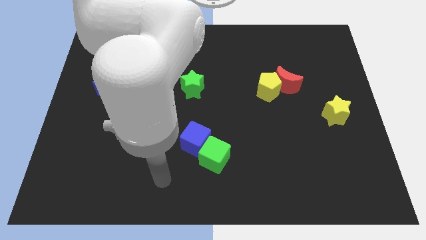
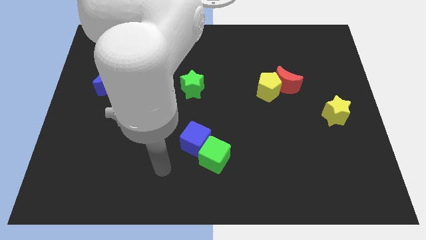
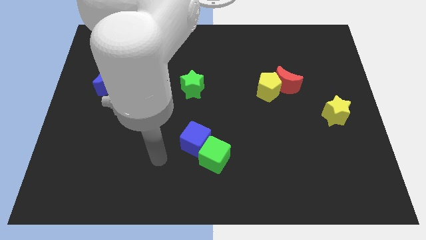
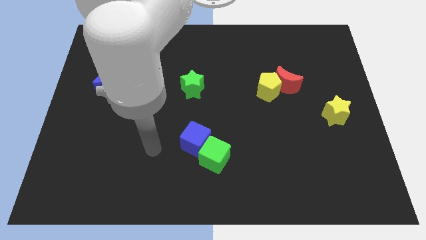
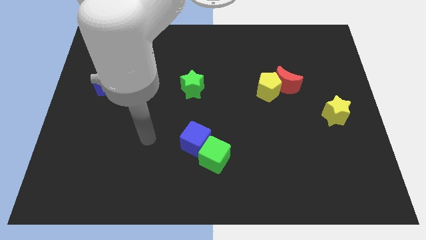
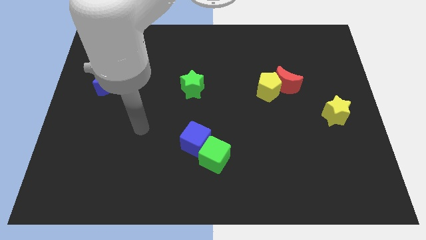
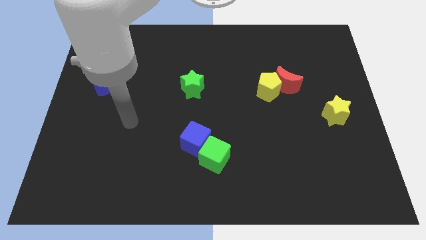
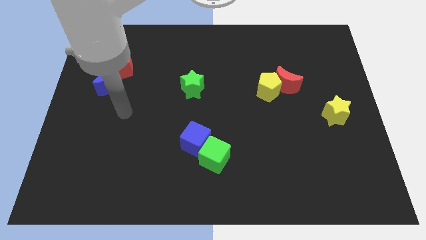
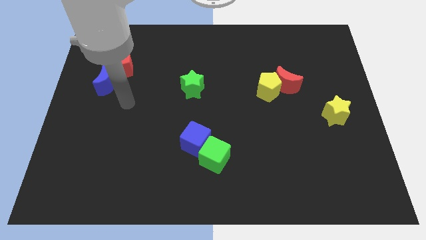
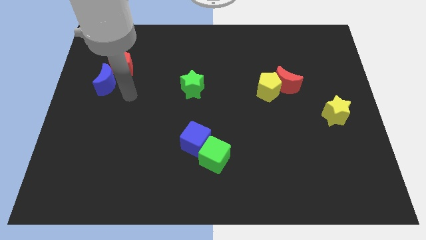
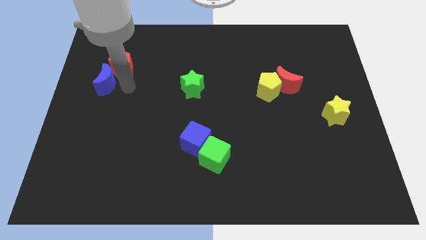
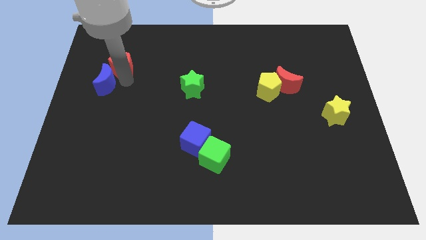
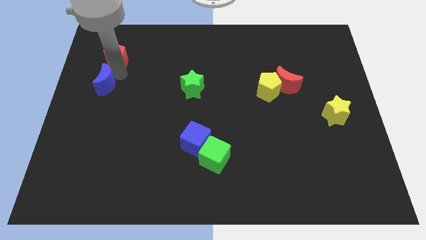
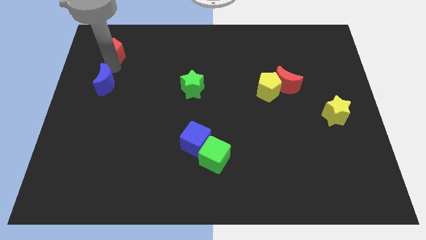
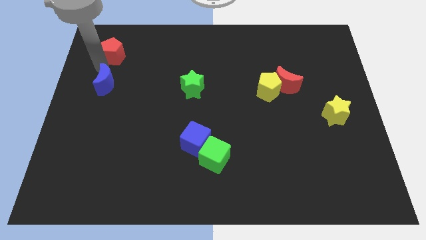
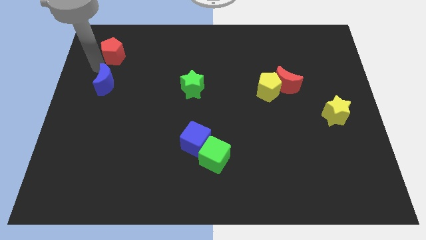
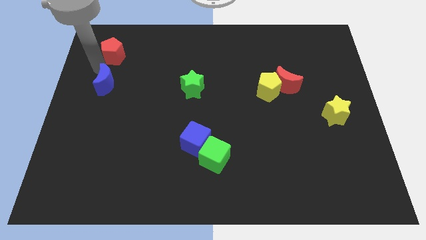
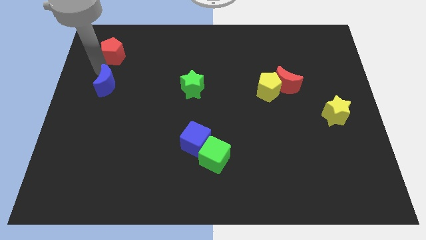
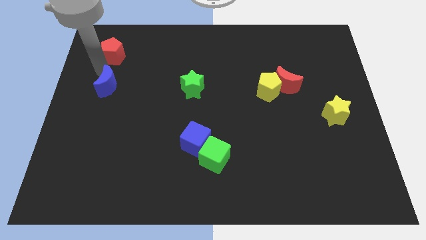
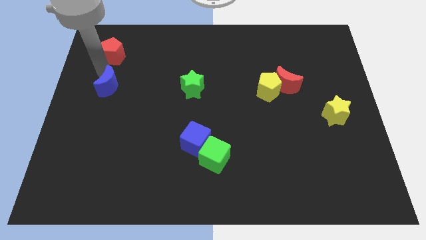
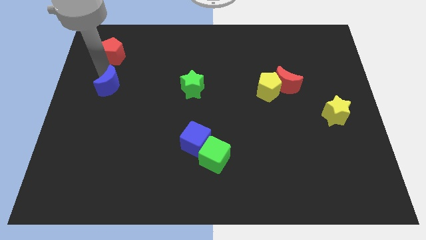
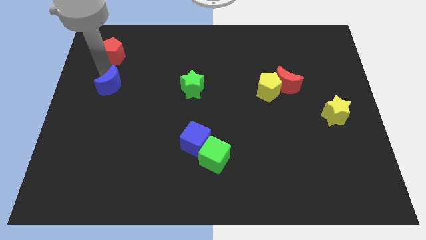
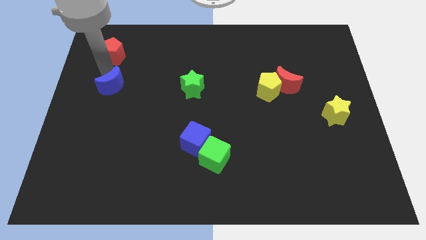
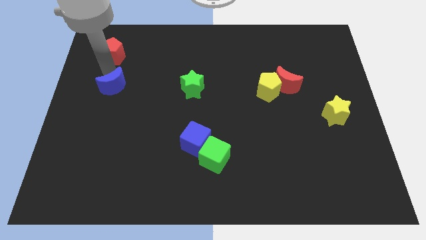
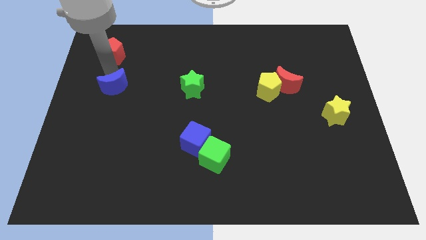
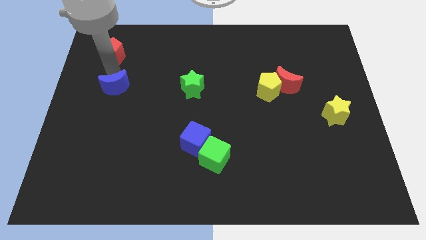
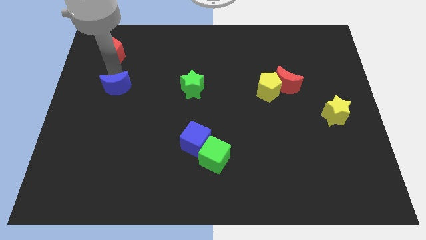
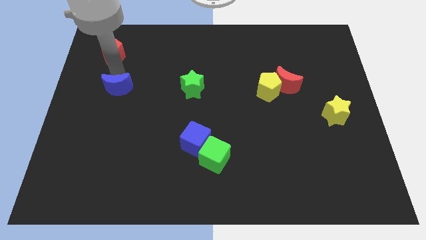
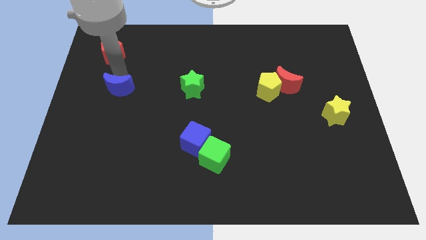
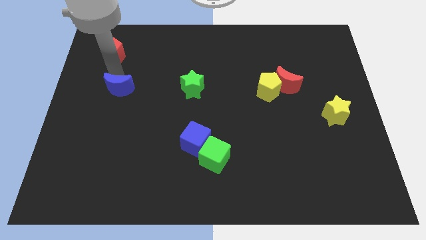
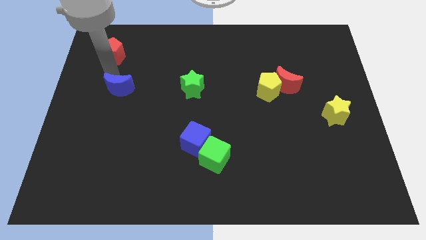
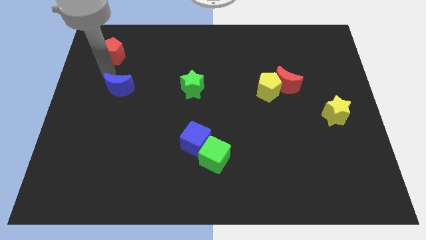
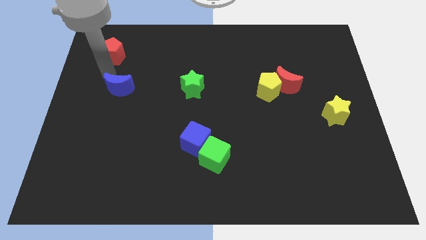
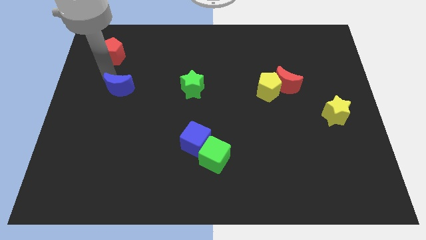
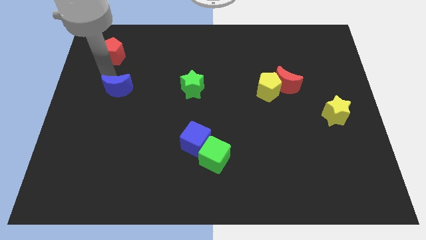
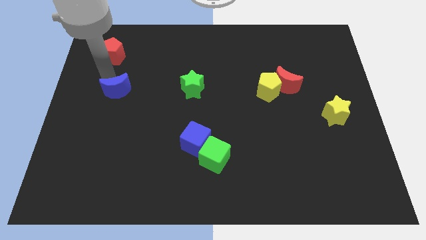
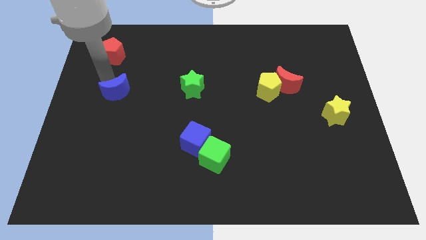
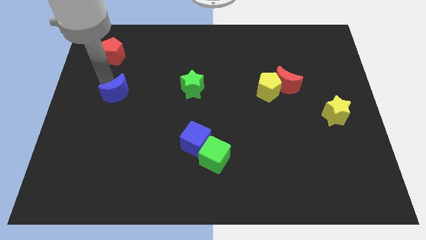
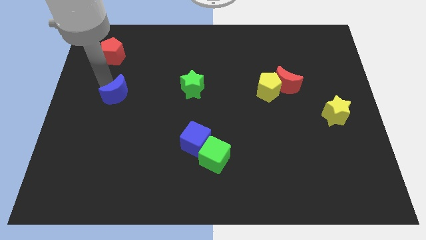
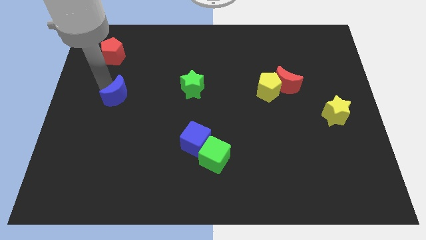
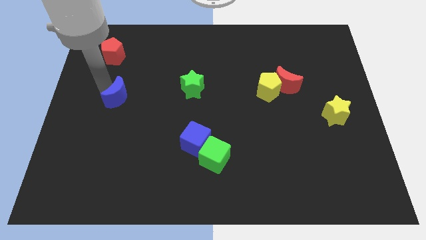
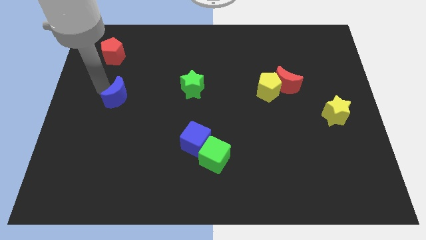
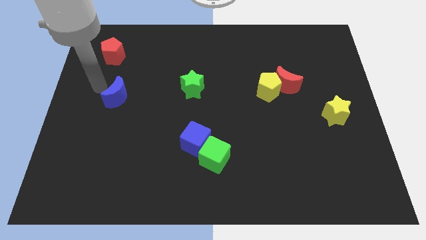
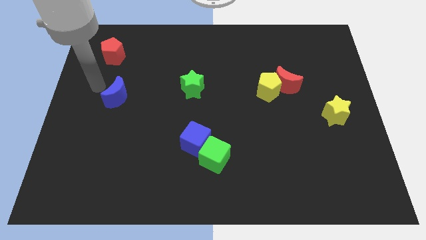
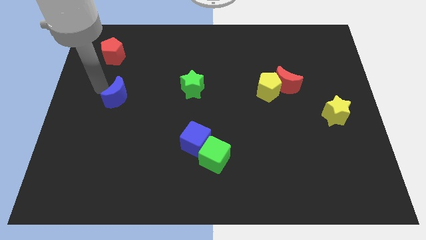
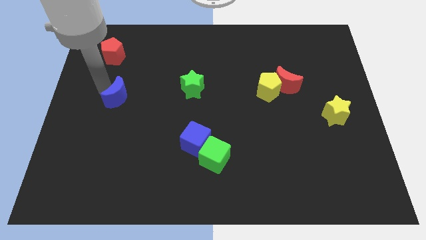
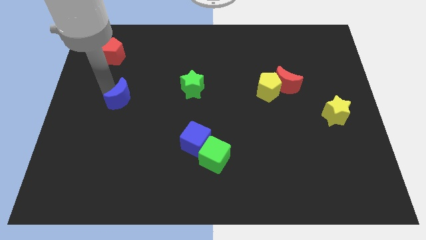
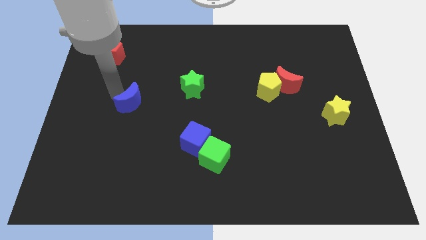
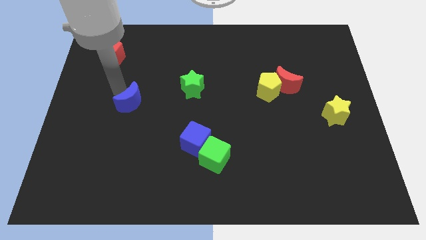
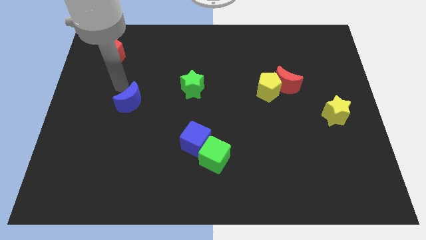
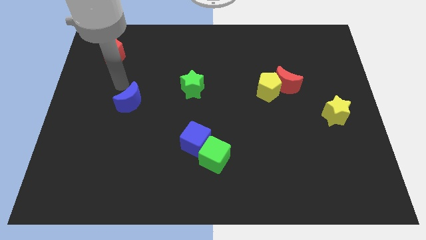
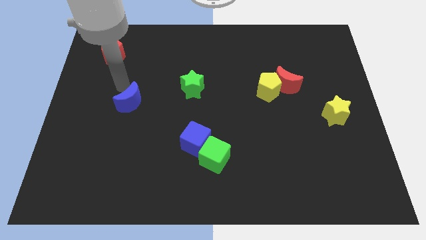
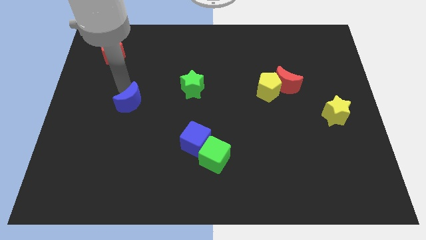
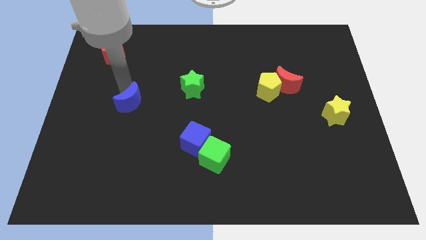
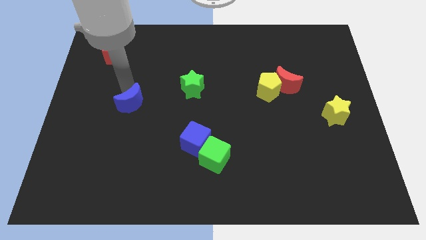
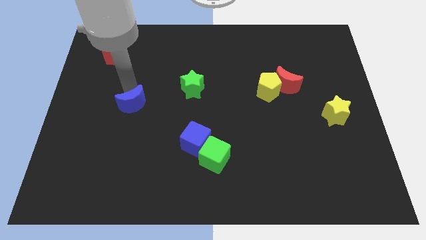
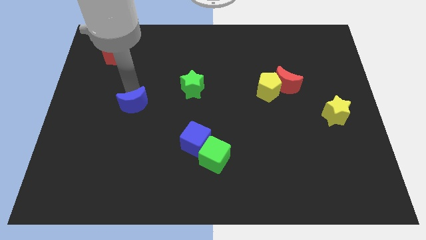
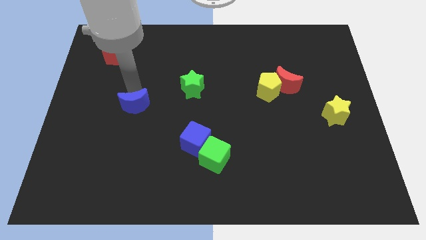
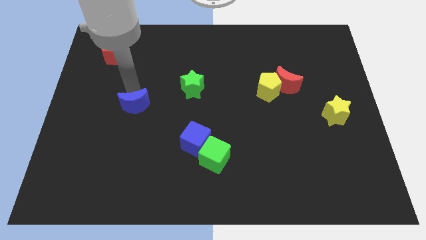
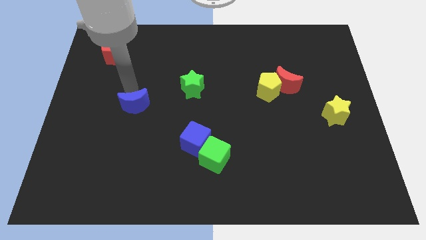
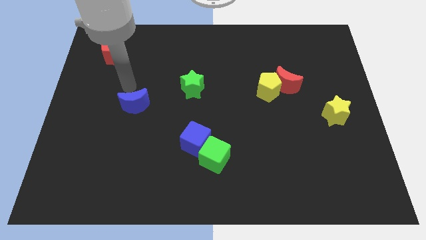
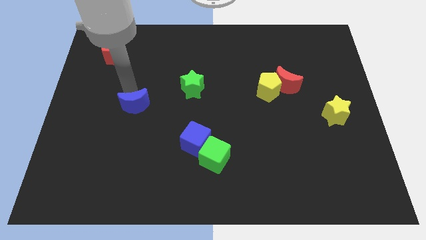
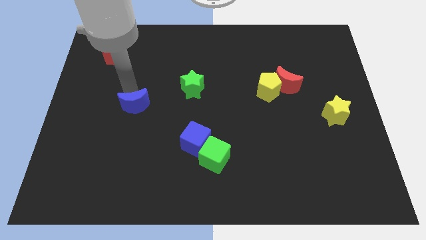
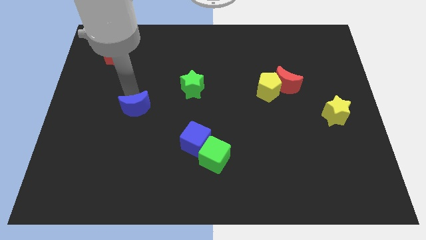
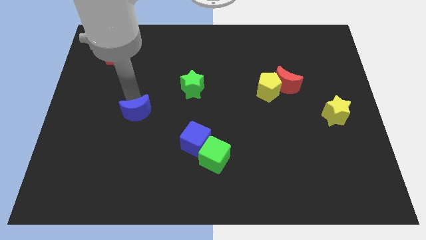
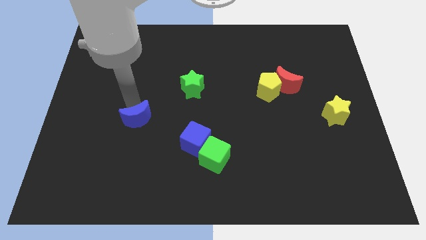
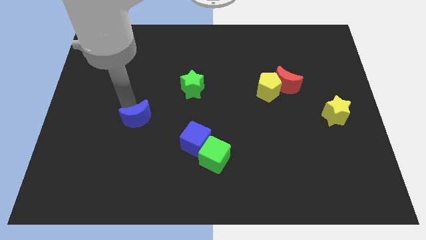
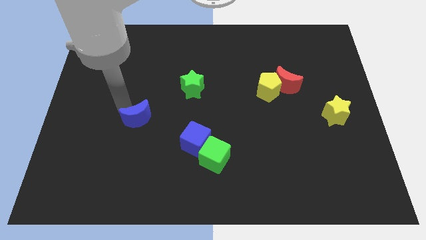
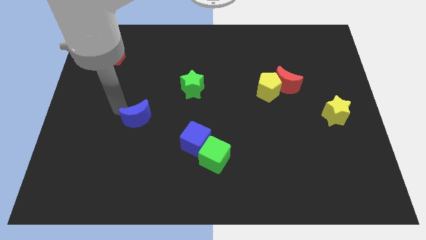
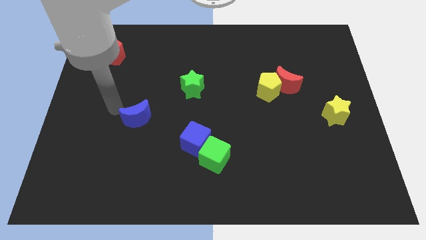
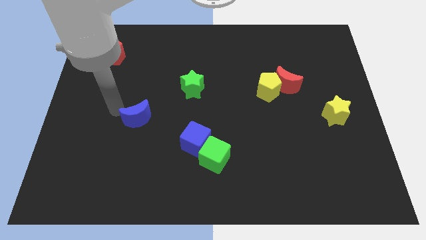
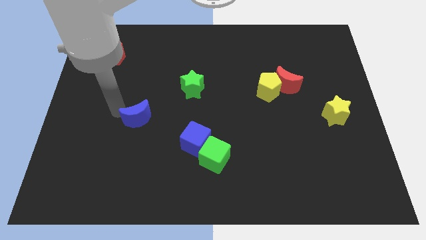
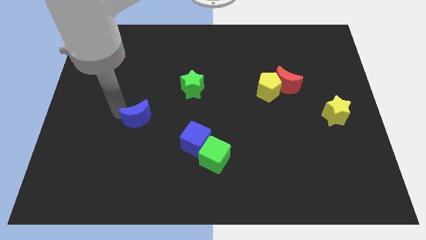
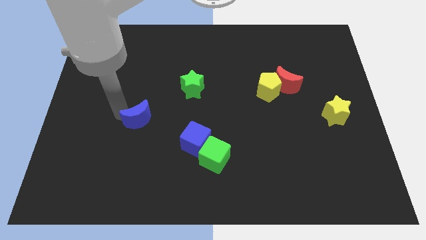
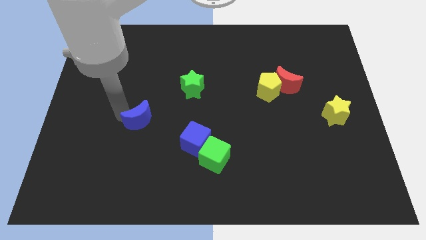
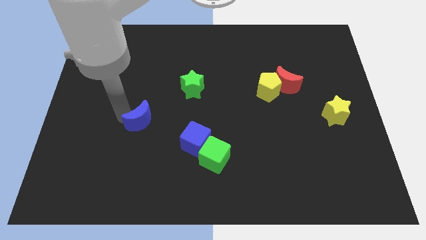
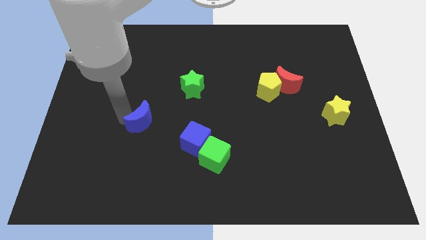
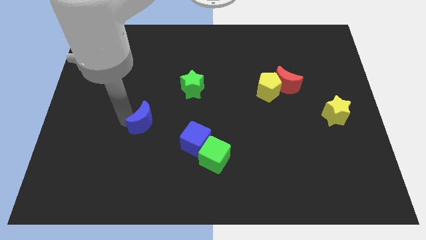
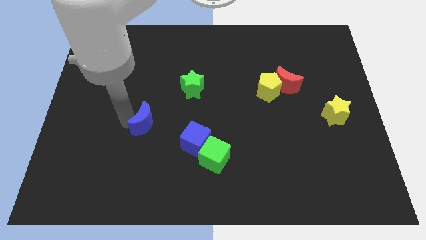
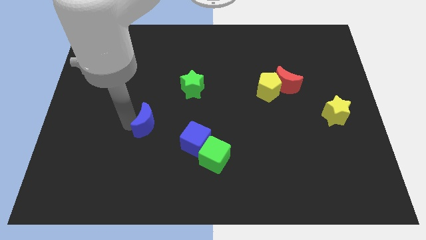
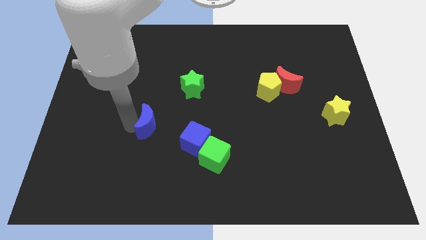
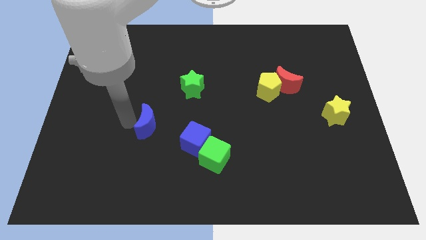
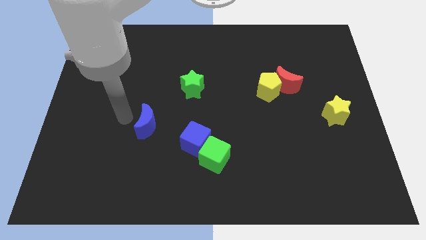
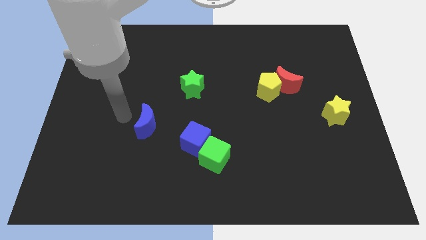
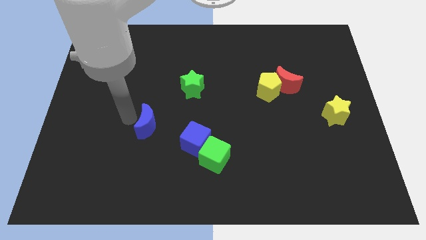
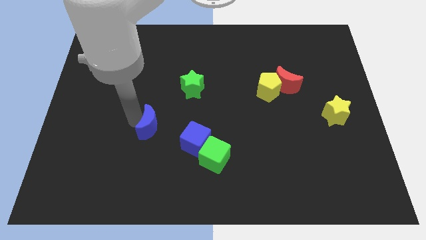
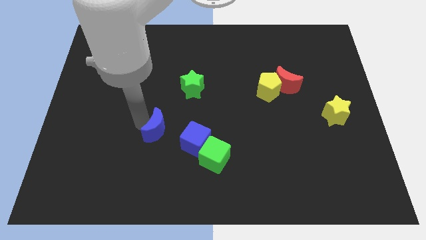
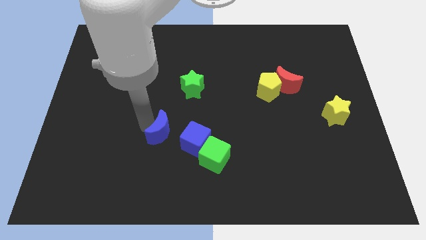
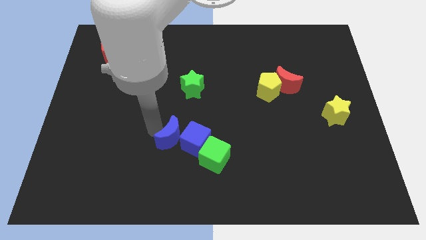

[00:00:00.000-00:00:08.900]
move the blue moon towards the blue cube
